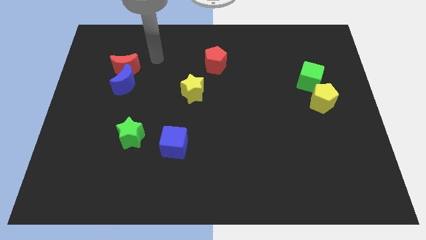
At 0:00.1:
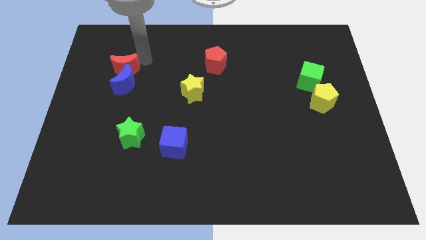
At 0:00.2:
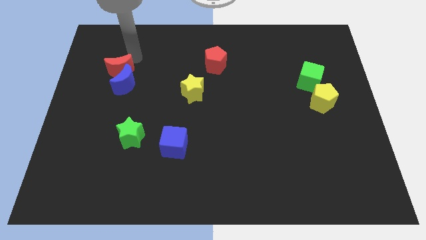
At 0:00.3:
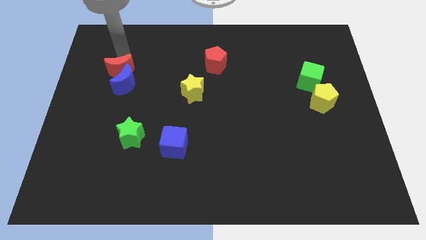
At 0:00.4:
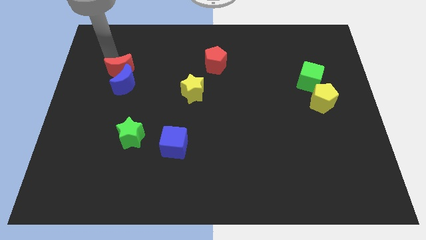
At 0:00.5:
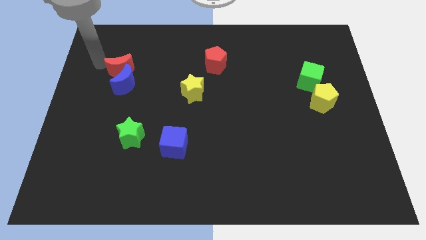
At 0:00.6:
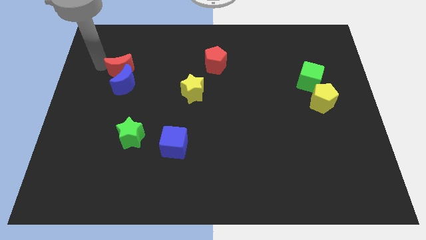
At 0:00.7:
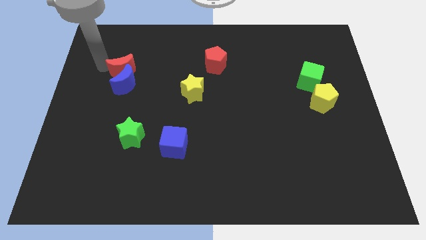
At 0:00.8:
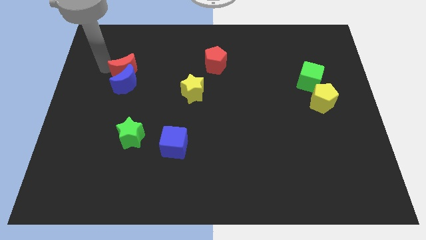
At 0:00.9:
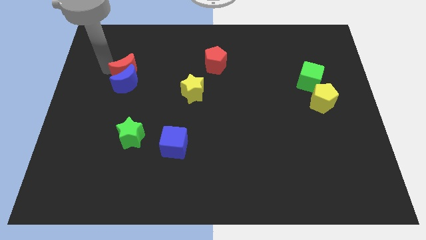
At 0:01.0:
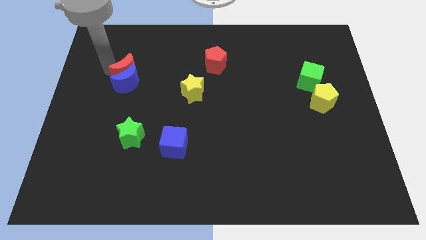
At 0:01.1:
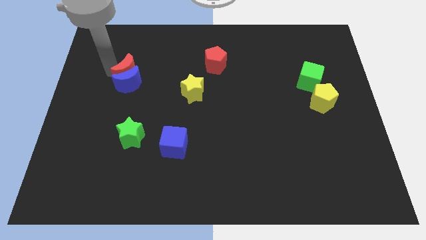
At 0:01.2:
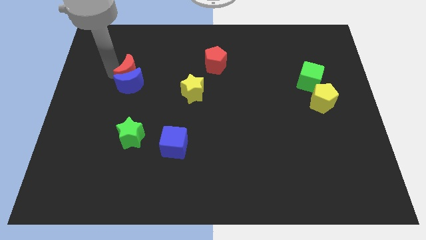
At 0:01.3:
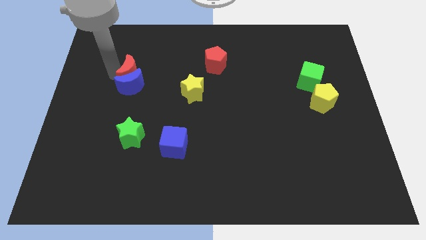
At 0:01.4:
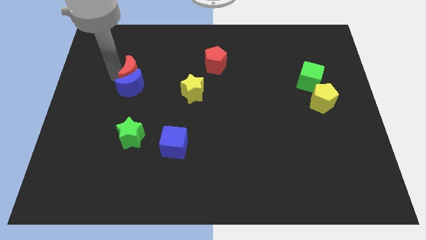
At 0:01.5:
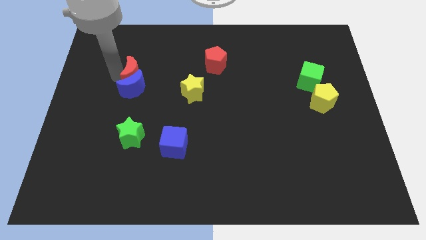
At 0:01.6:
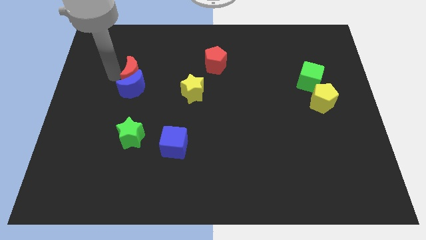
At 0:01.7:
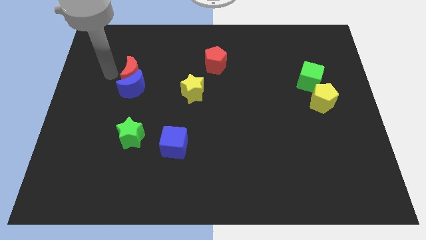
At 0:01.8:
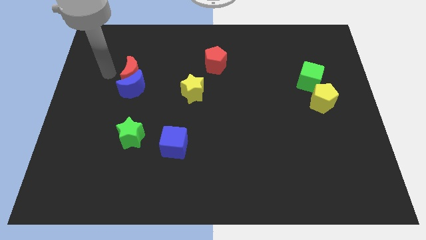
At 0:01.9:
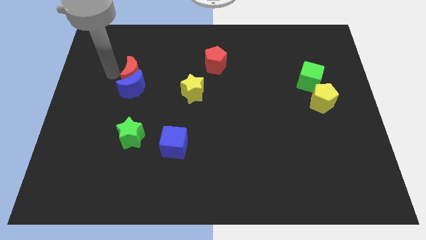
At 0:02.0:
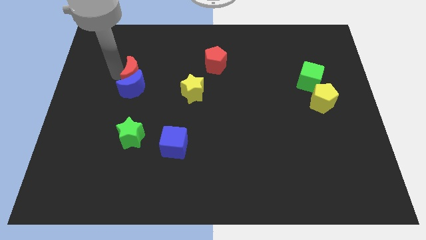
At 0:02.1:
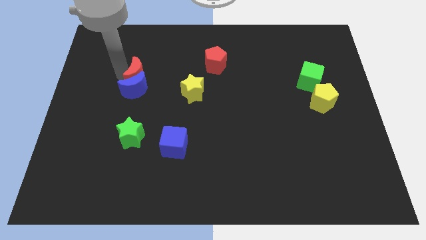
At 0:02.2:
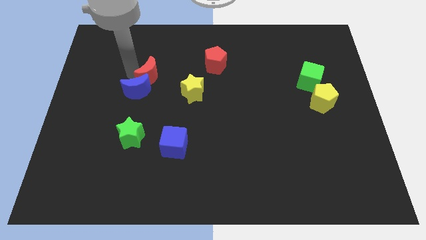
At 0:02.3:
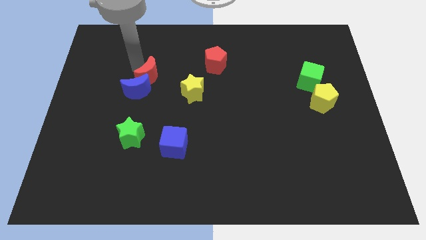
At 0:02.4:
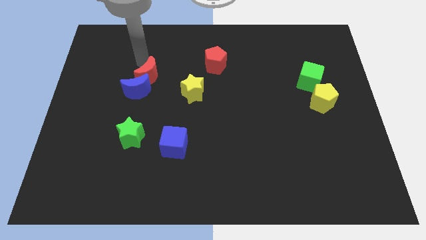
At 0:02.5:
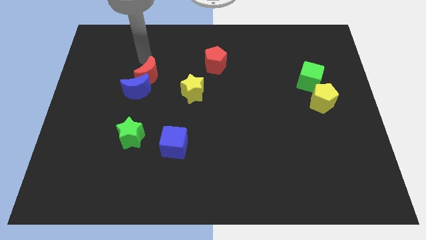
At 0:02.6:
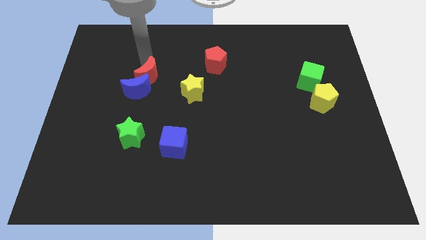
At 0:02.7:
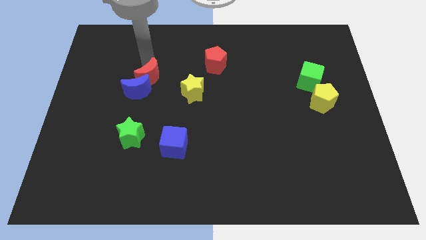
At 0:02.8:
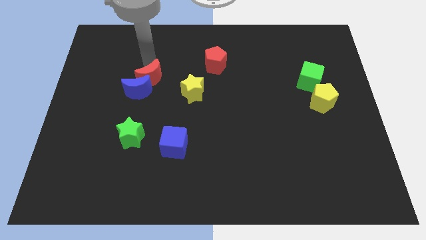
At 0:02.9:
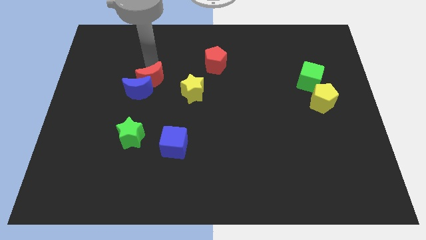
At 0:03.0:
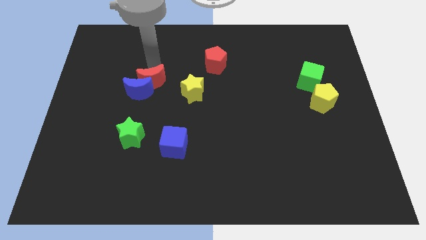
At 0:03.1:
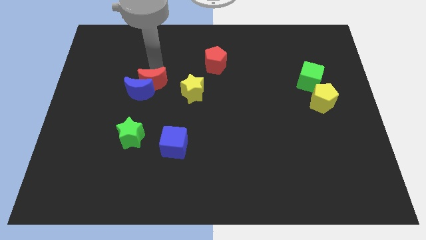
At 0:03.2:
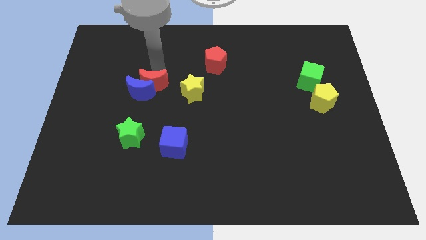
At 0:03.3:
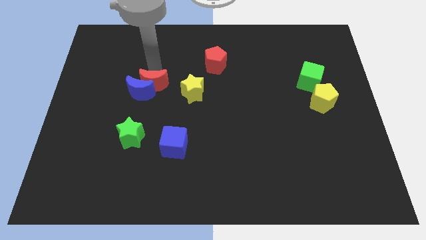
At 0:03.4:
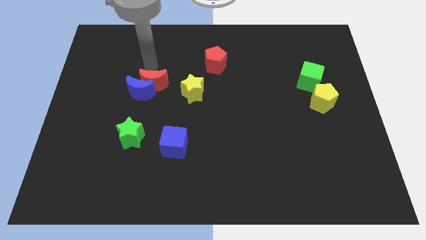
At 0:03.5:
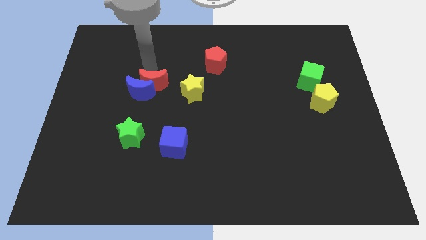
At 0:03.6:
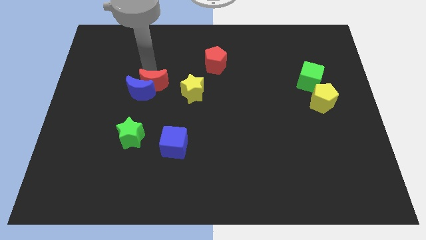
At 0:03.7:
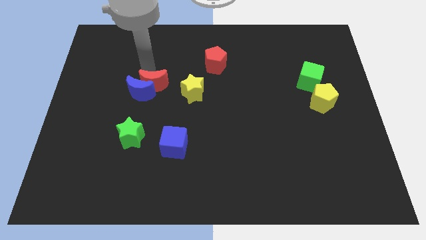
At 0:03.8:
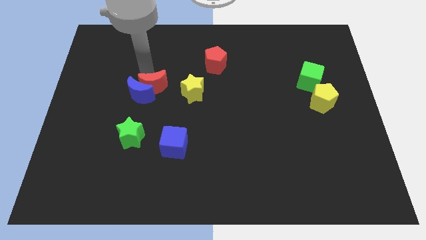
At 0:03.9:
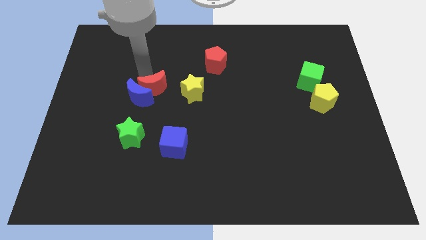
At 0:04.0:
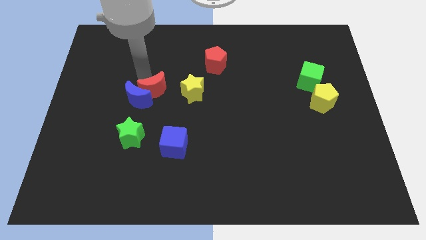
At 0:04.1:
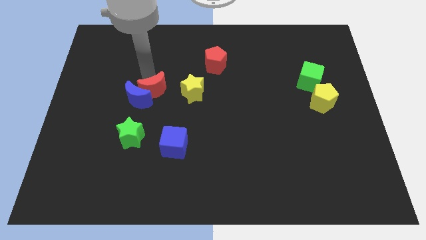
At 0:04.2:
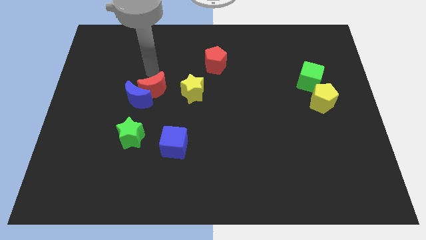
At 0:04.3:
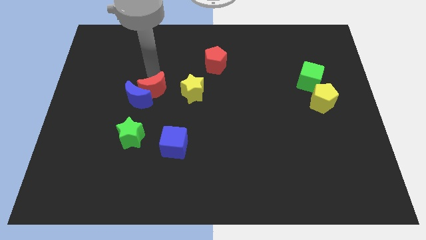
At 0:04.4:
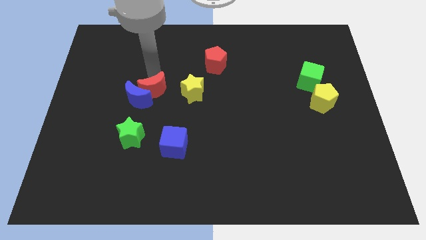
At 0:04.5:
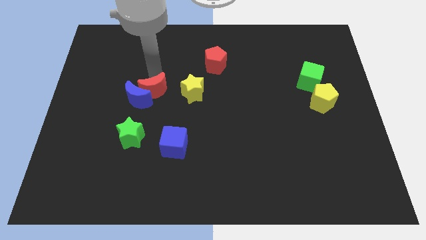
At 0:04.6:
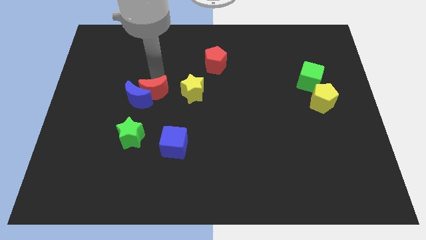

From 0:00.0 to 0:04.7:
push the red moon diagonally down and to the right of the blue moon

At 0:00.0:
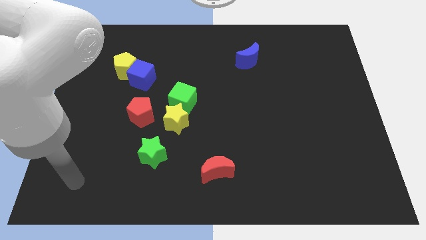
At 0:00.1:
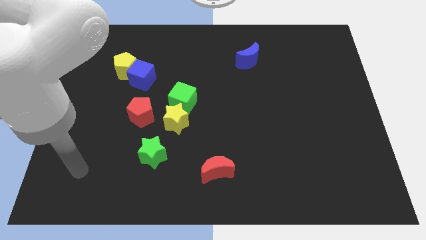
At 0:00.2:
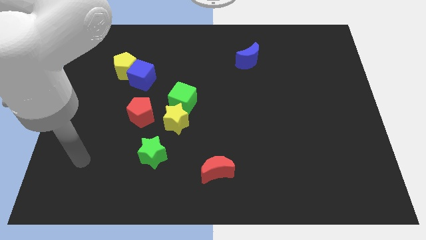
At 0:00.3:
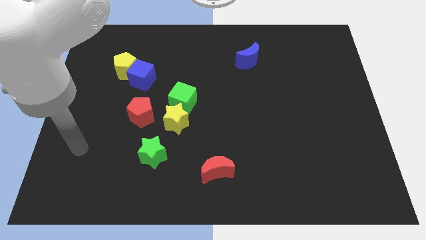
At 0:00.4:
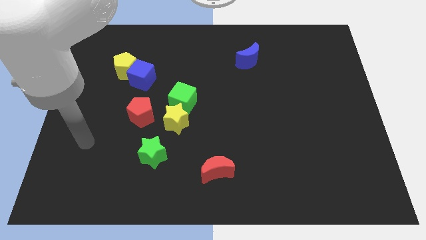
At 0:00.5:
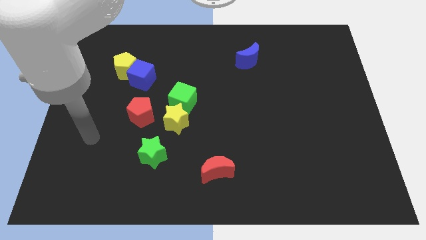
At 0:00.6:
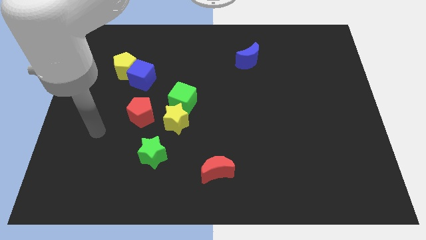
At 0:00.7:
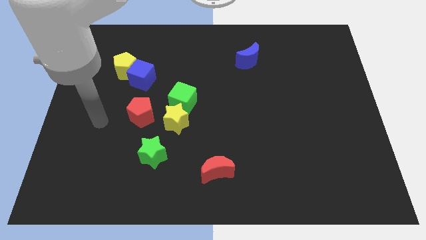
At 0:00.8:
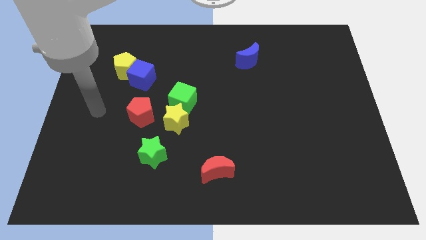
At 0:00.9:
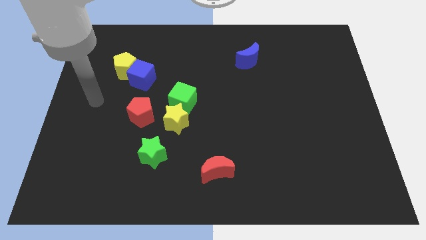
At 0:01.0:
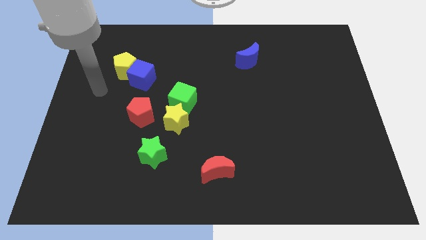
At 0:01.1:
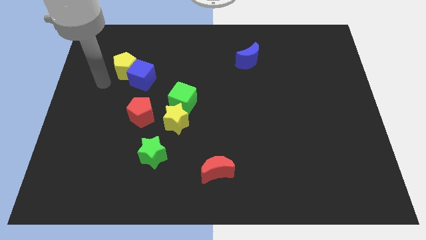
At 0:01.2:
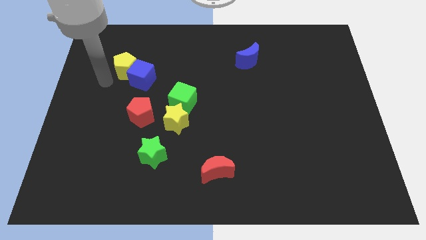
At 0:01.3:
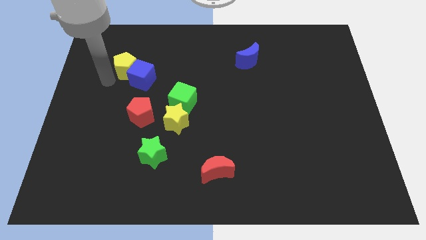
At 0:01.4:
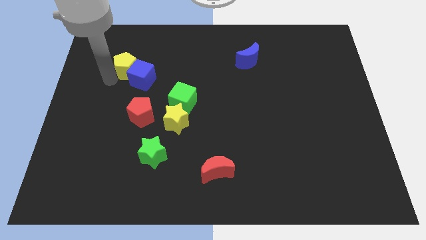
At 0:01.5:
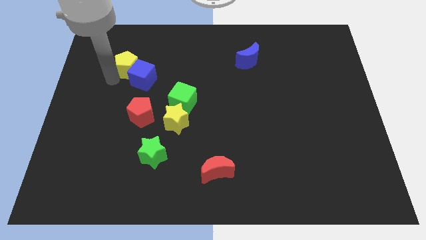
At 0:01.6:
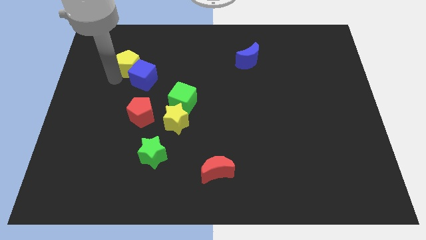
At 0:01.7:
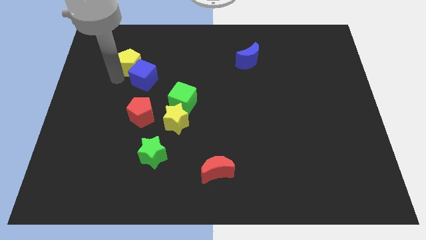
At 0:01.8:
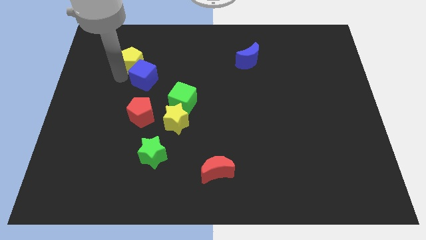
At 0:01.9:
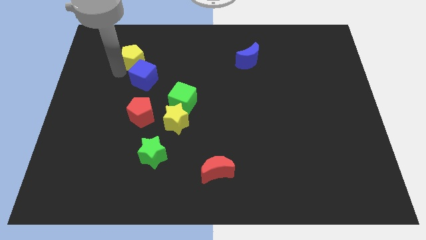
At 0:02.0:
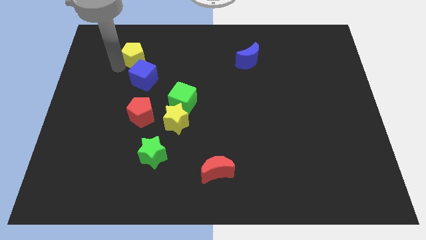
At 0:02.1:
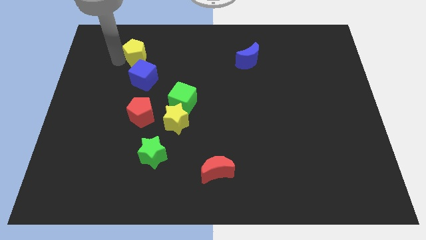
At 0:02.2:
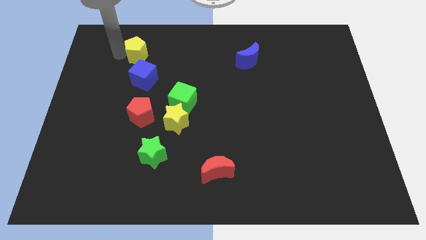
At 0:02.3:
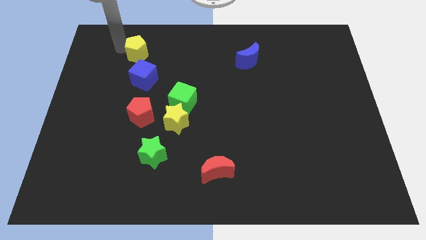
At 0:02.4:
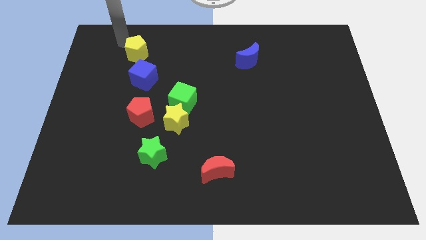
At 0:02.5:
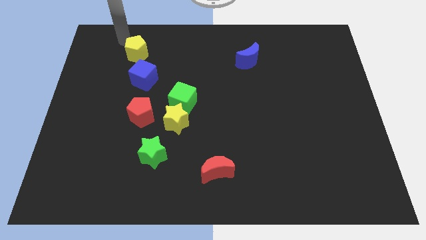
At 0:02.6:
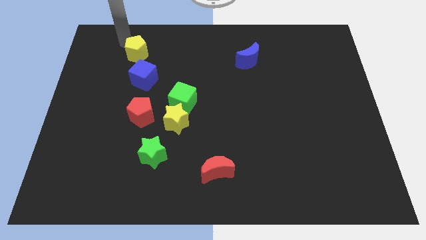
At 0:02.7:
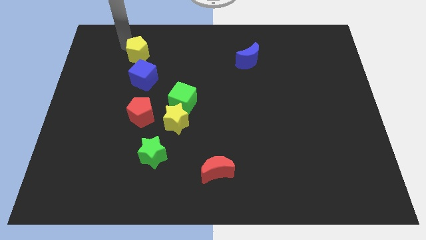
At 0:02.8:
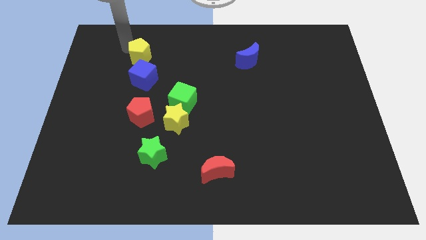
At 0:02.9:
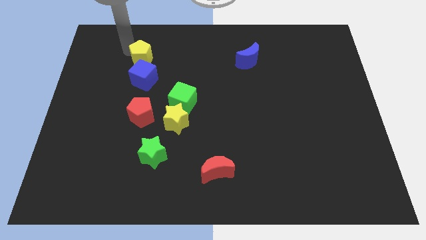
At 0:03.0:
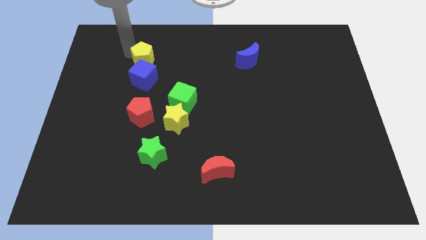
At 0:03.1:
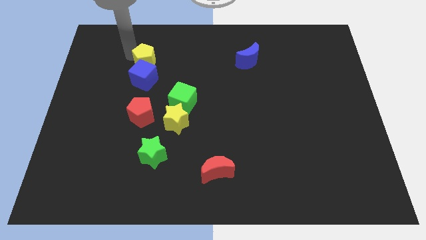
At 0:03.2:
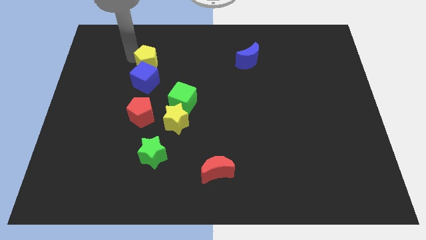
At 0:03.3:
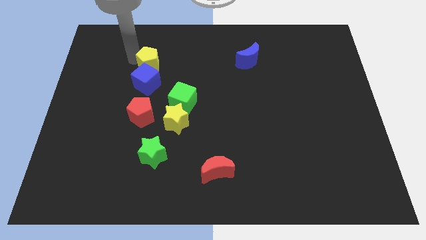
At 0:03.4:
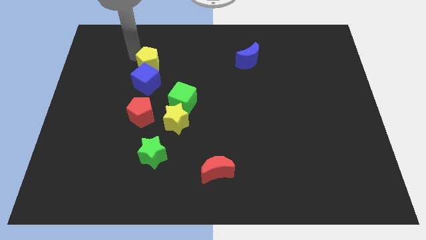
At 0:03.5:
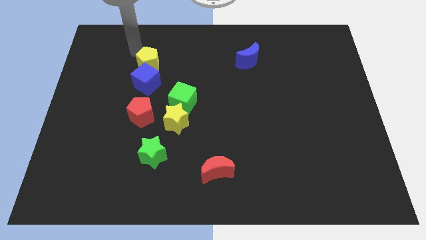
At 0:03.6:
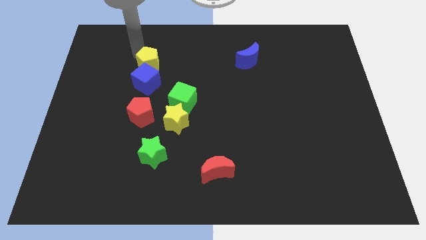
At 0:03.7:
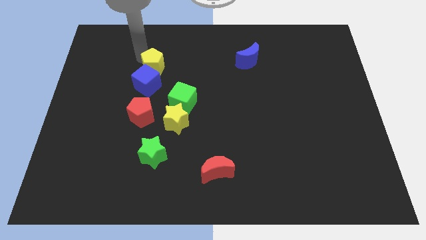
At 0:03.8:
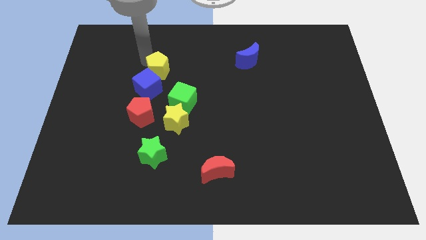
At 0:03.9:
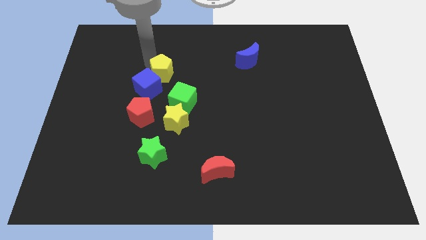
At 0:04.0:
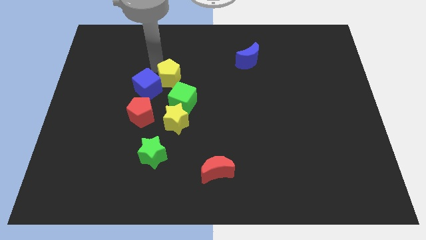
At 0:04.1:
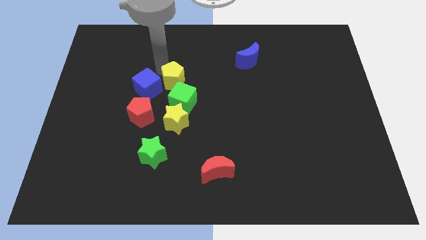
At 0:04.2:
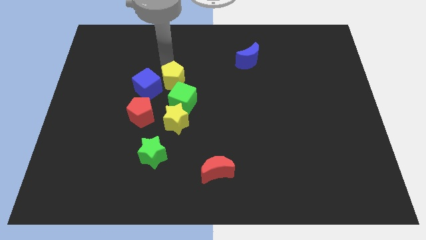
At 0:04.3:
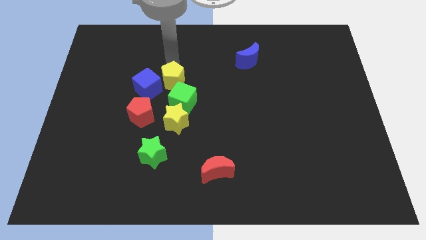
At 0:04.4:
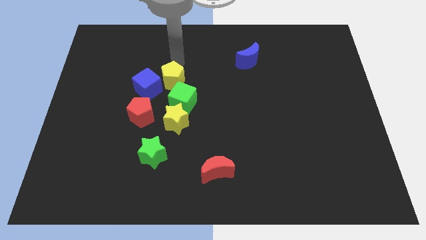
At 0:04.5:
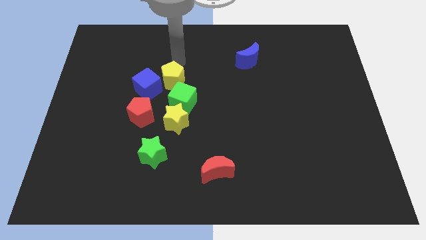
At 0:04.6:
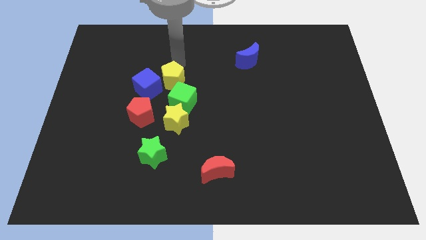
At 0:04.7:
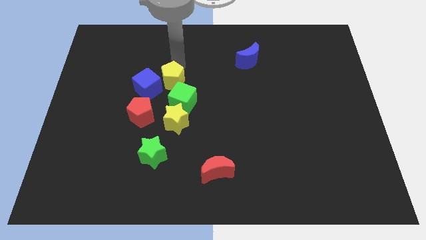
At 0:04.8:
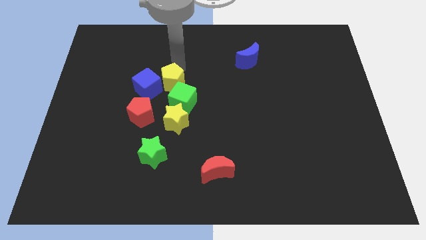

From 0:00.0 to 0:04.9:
move the yellow pentagon to the top right side of the red pentagon
